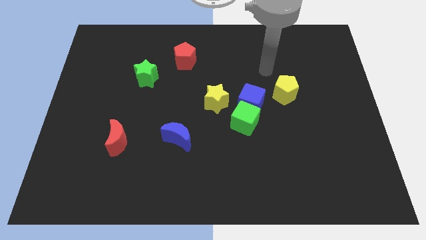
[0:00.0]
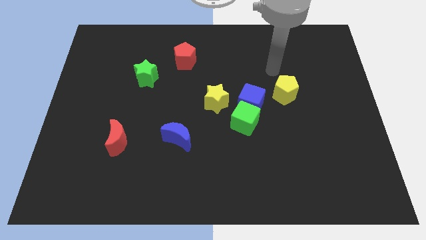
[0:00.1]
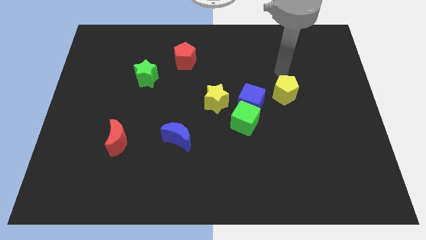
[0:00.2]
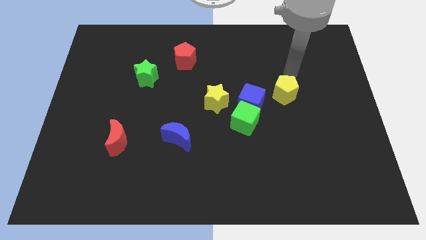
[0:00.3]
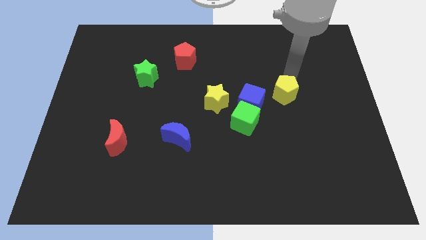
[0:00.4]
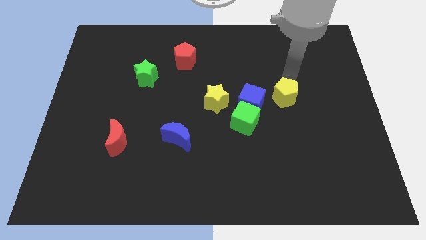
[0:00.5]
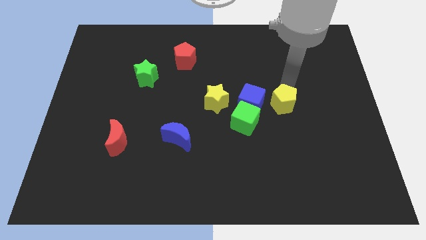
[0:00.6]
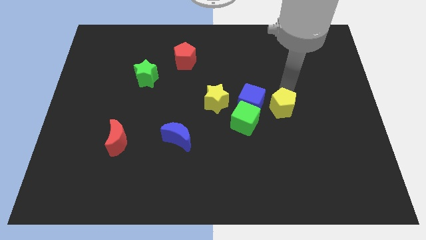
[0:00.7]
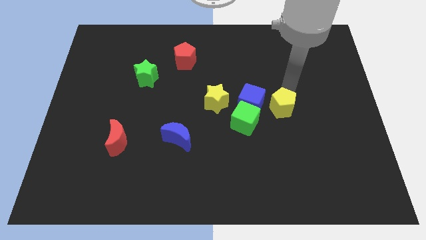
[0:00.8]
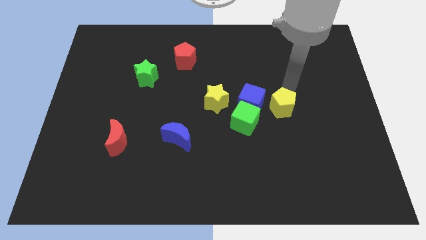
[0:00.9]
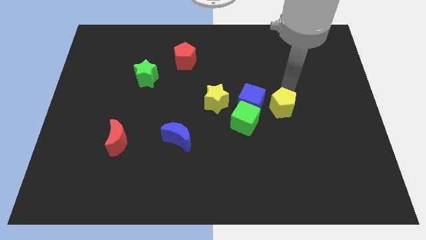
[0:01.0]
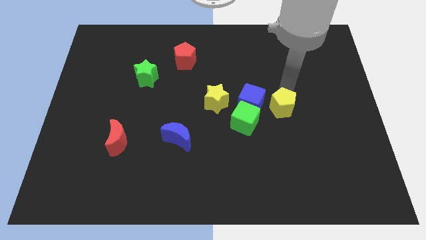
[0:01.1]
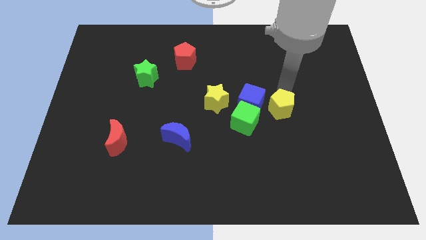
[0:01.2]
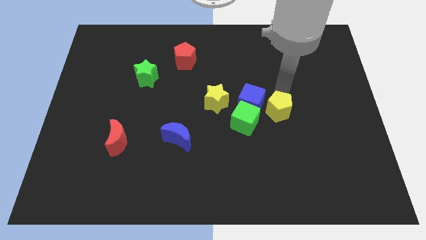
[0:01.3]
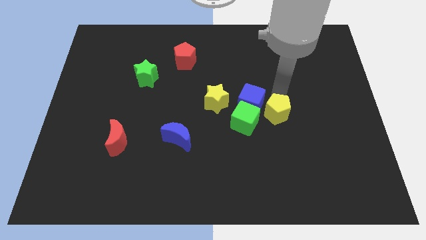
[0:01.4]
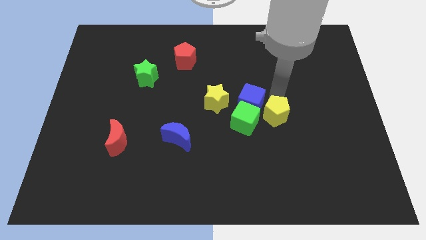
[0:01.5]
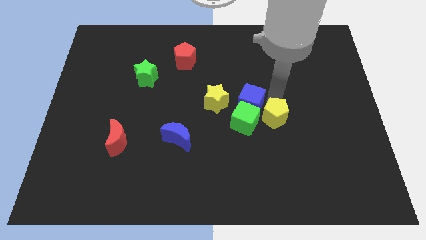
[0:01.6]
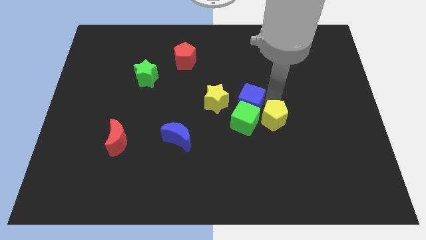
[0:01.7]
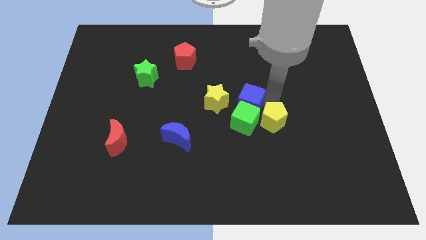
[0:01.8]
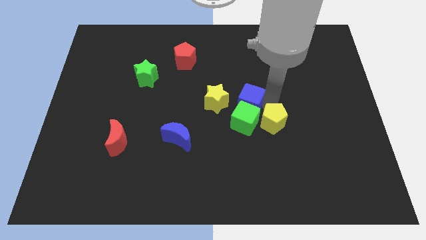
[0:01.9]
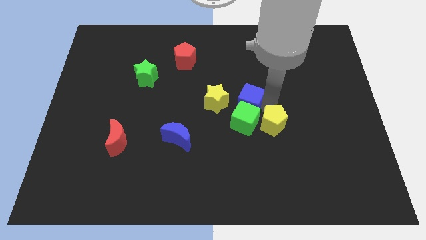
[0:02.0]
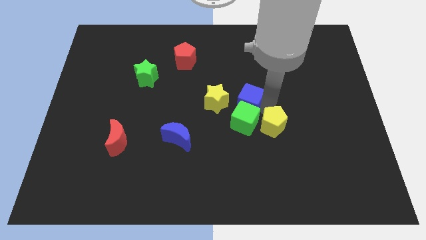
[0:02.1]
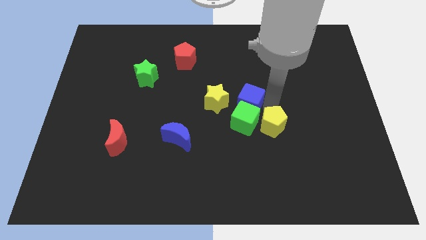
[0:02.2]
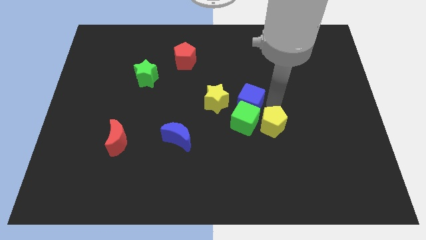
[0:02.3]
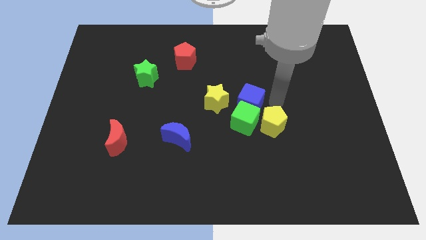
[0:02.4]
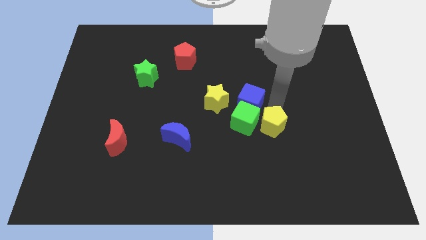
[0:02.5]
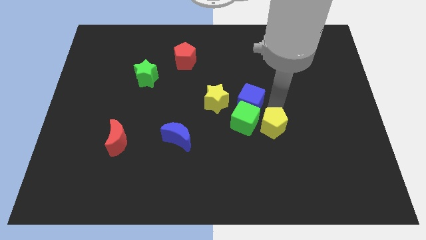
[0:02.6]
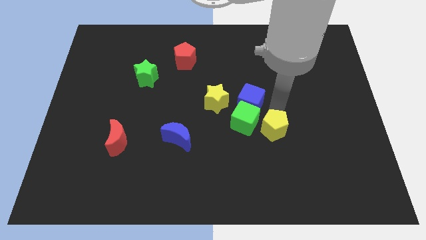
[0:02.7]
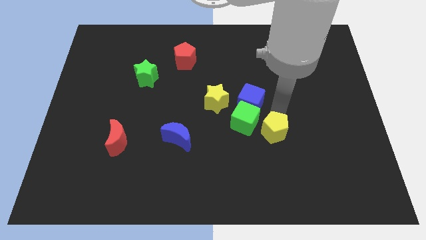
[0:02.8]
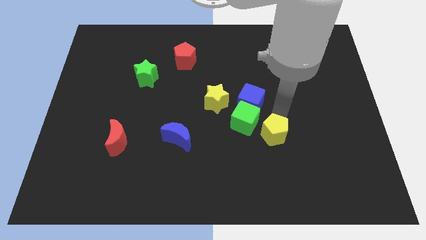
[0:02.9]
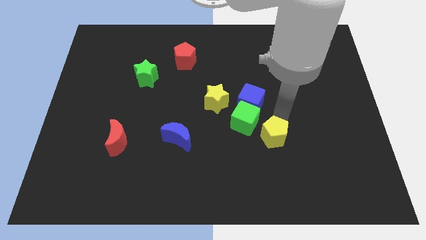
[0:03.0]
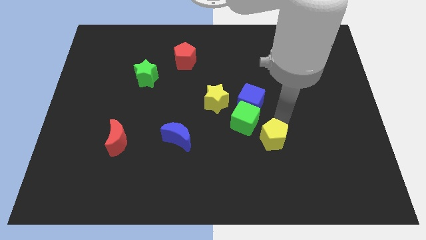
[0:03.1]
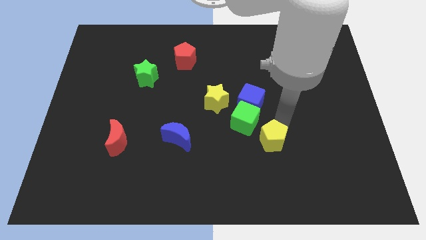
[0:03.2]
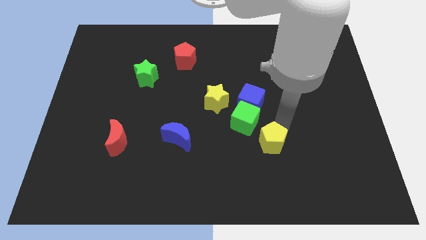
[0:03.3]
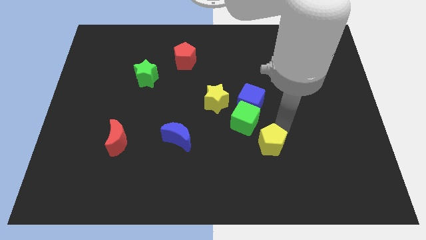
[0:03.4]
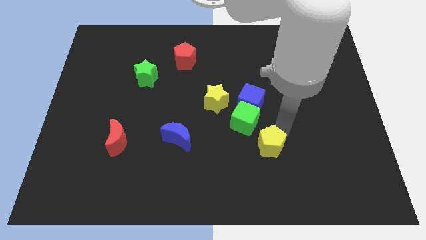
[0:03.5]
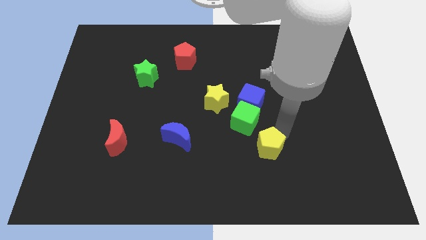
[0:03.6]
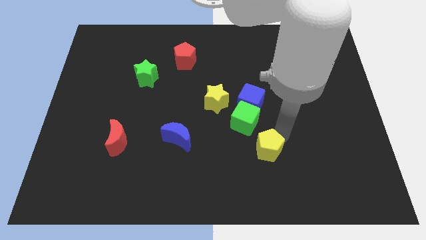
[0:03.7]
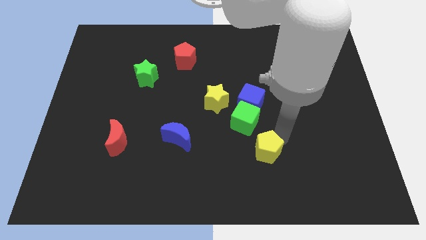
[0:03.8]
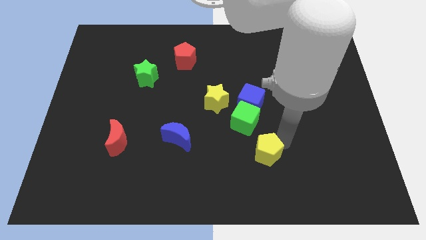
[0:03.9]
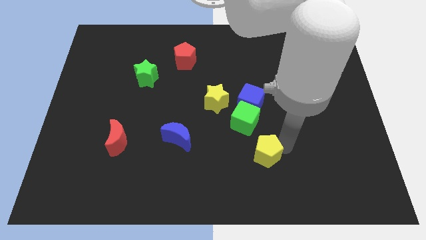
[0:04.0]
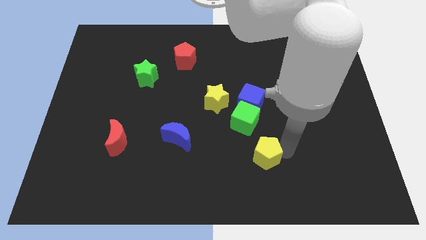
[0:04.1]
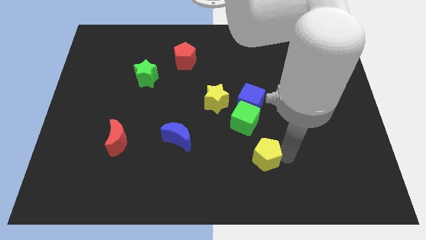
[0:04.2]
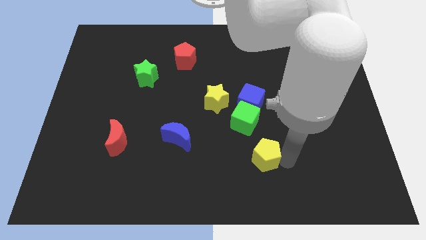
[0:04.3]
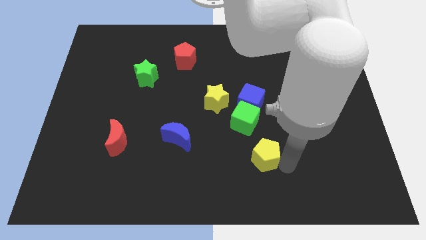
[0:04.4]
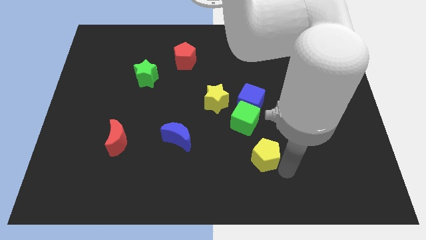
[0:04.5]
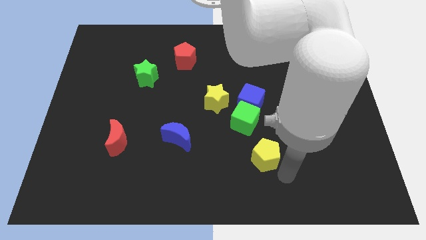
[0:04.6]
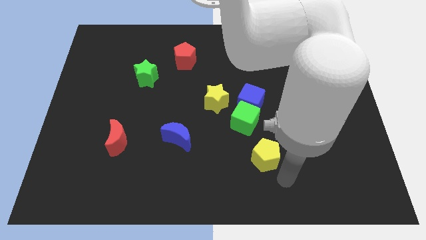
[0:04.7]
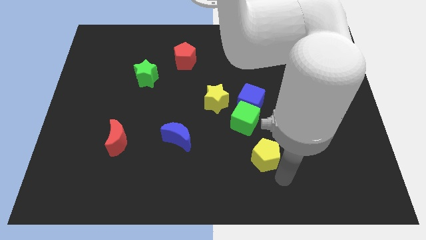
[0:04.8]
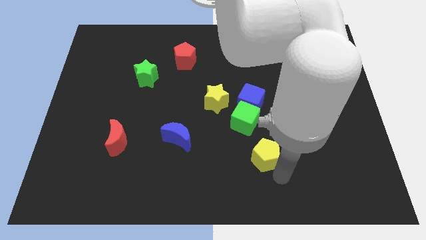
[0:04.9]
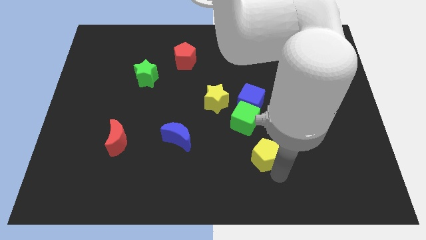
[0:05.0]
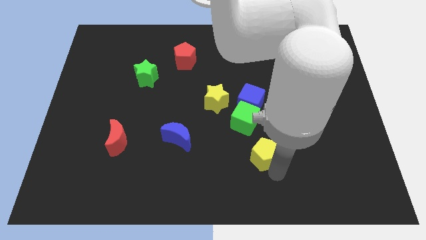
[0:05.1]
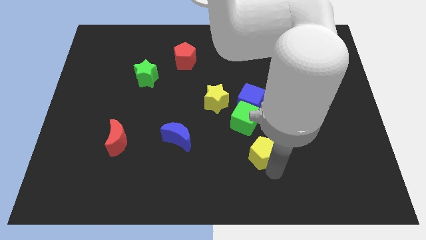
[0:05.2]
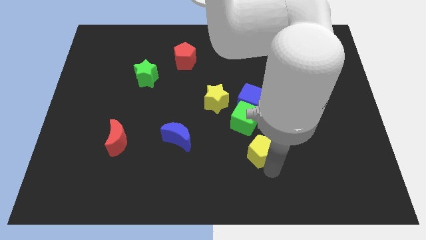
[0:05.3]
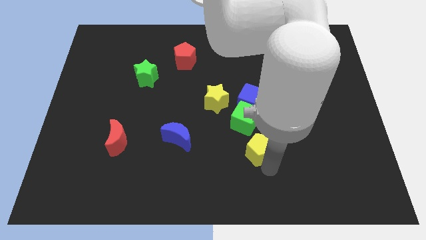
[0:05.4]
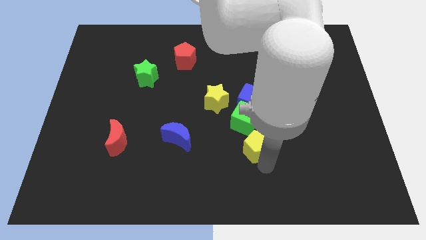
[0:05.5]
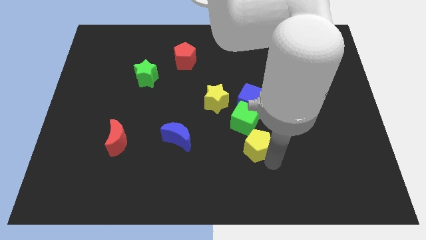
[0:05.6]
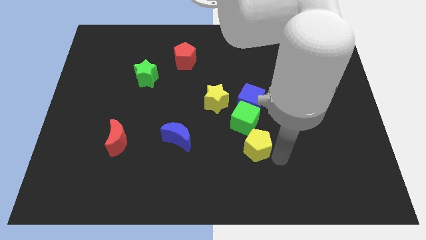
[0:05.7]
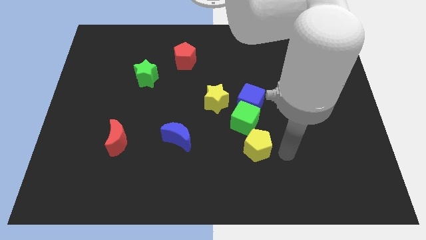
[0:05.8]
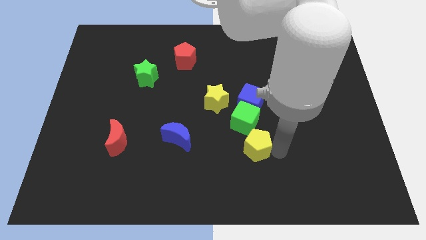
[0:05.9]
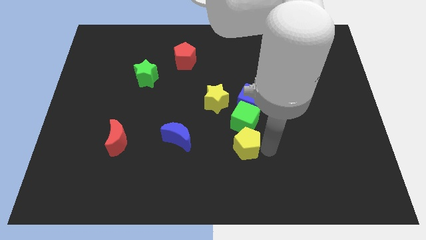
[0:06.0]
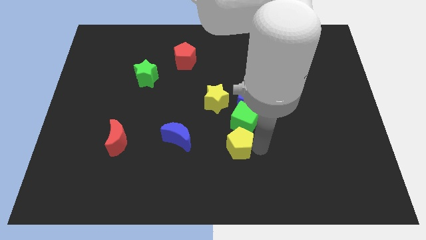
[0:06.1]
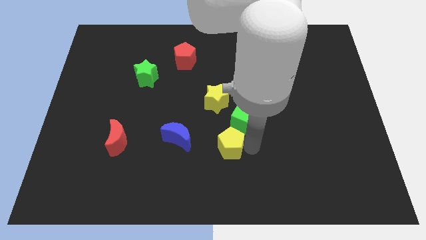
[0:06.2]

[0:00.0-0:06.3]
move the yellow pentagon to the bottom side of the yellow star

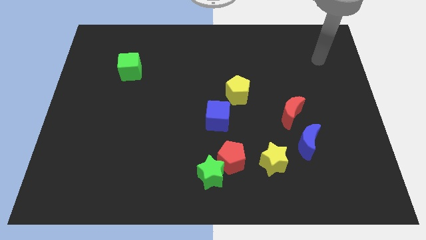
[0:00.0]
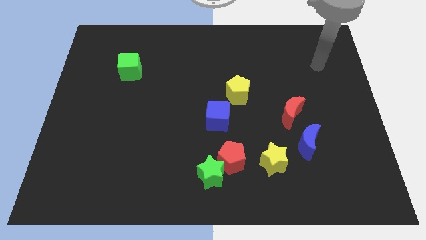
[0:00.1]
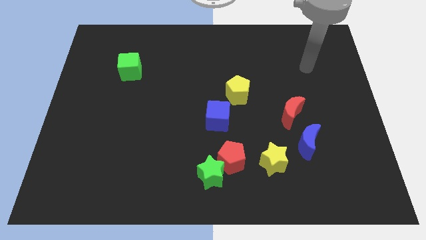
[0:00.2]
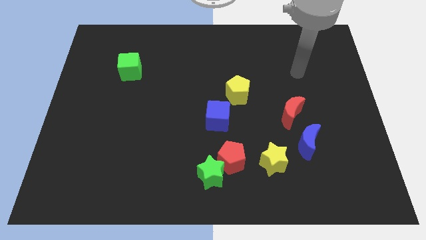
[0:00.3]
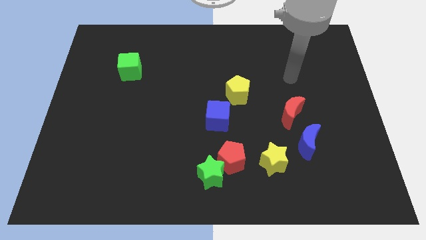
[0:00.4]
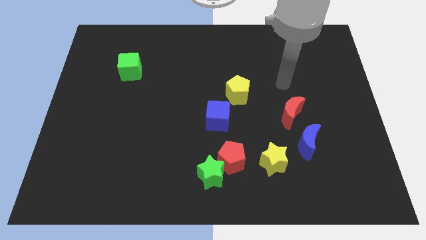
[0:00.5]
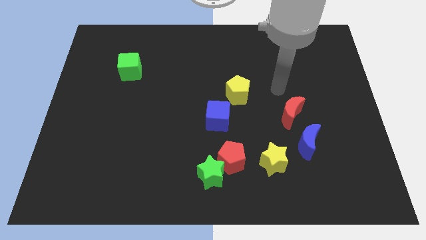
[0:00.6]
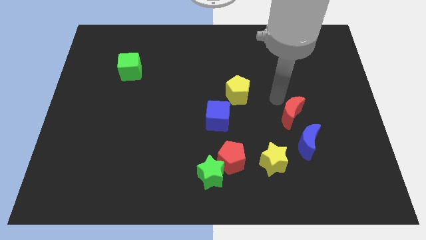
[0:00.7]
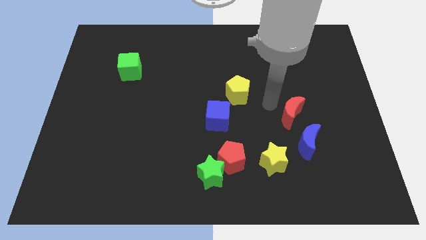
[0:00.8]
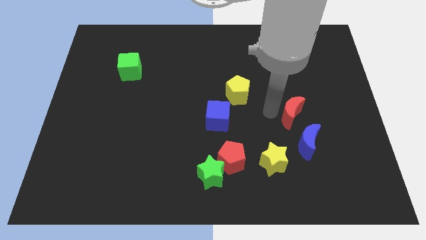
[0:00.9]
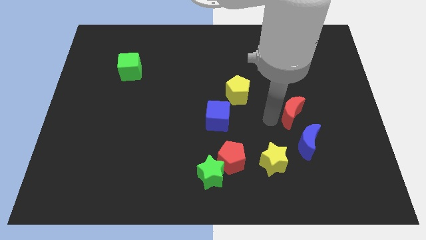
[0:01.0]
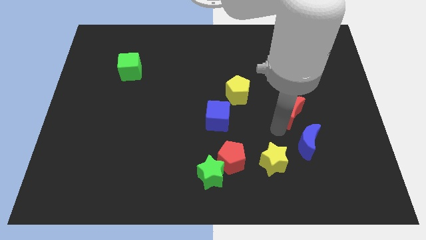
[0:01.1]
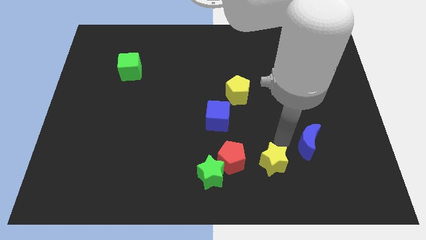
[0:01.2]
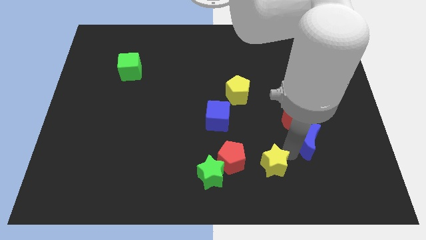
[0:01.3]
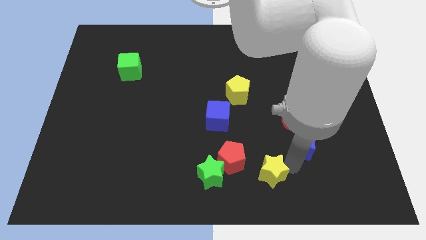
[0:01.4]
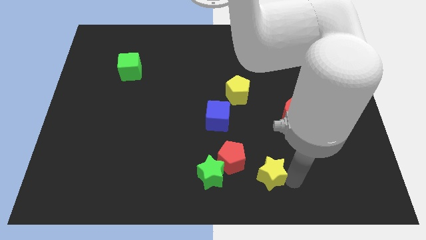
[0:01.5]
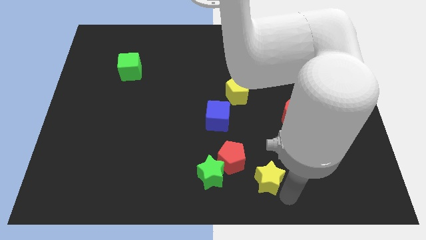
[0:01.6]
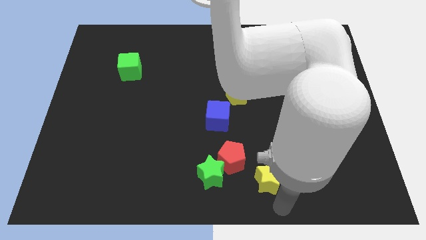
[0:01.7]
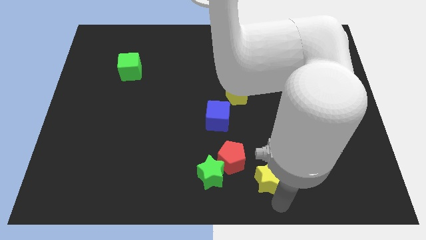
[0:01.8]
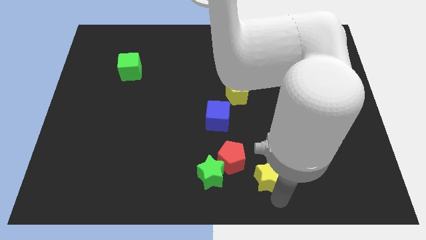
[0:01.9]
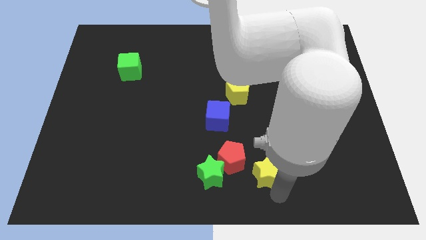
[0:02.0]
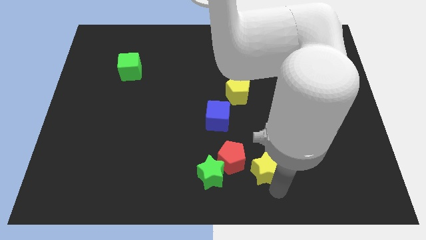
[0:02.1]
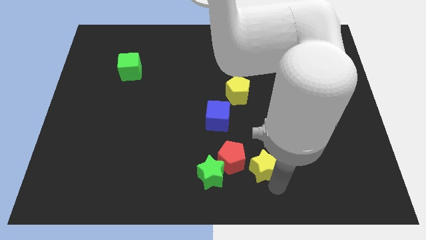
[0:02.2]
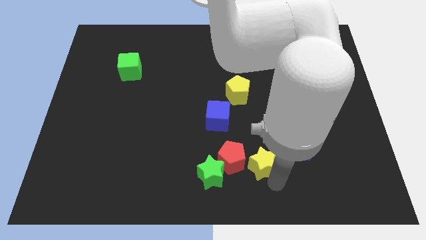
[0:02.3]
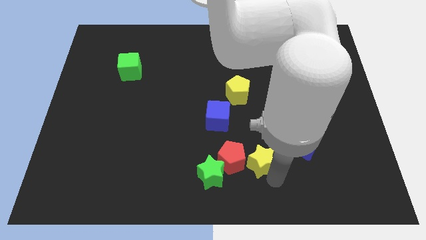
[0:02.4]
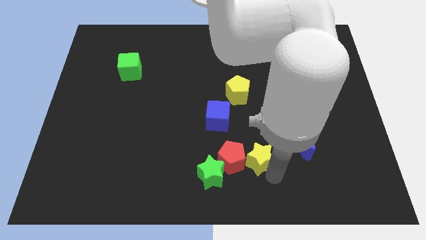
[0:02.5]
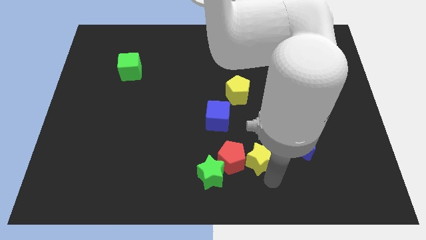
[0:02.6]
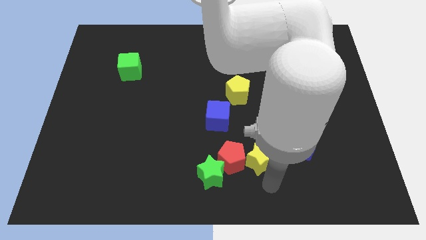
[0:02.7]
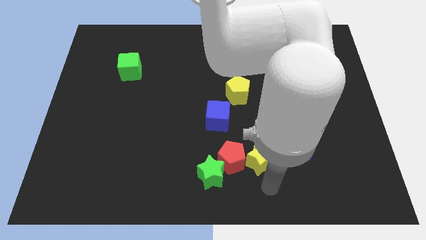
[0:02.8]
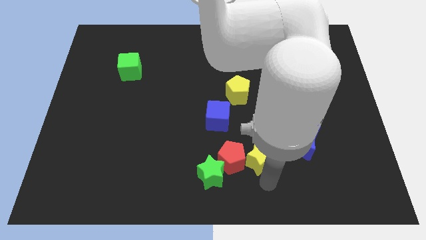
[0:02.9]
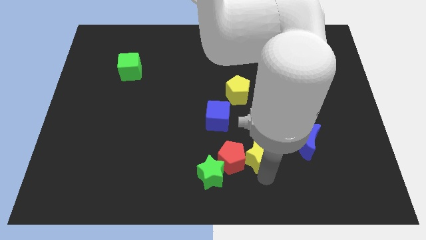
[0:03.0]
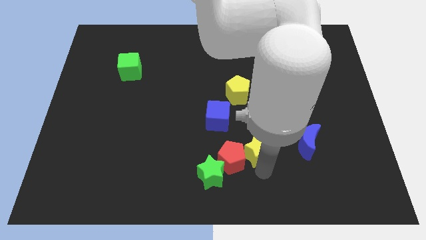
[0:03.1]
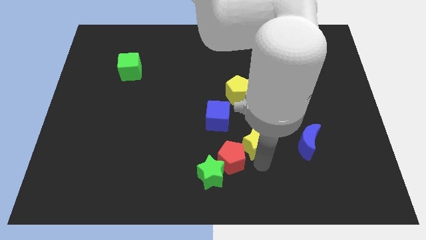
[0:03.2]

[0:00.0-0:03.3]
push the yellow star to the bottom of the yellow pentagon
